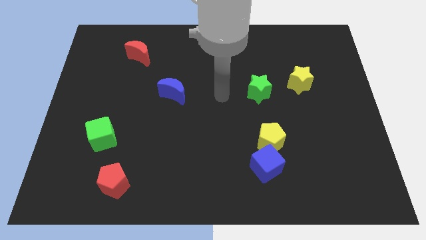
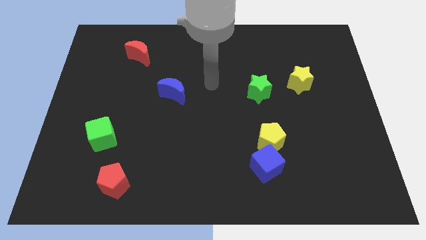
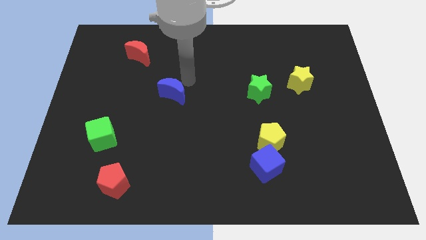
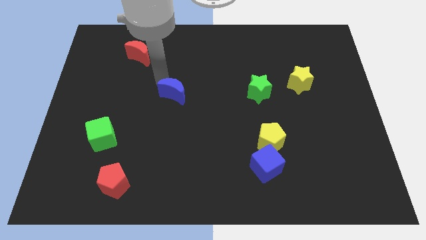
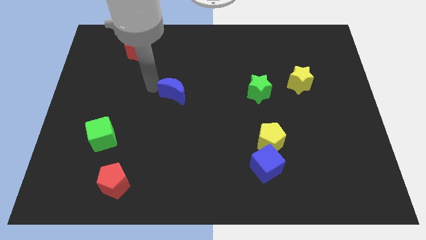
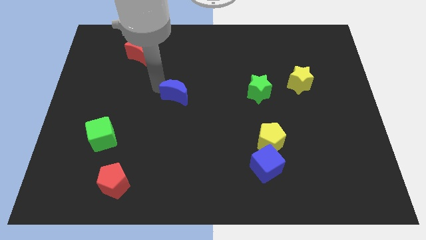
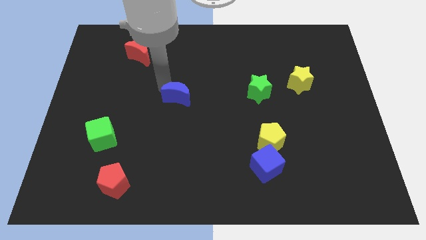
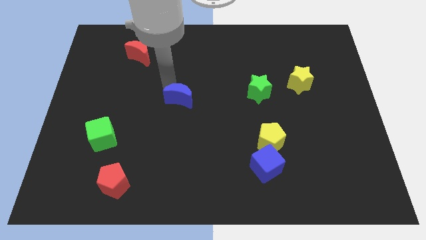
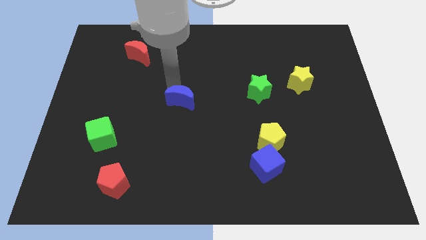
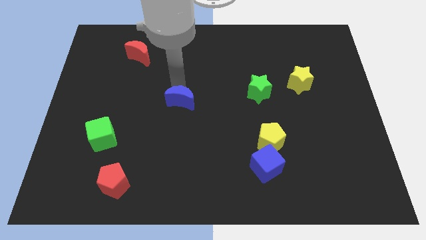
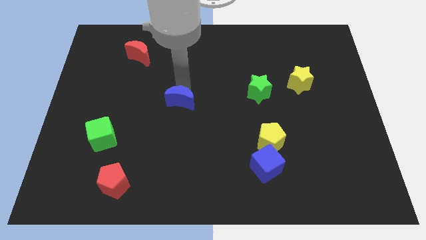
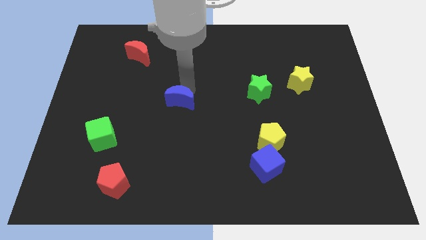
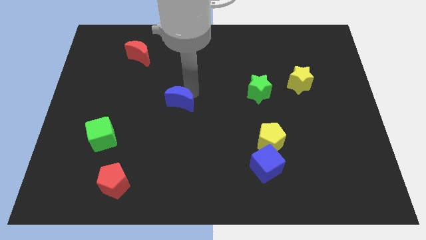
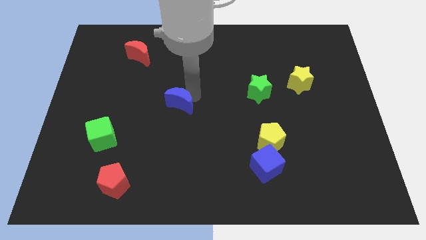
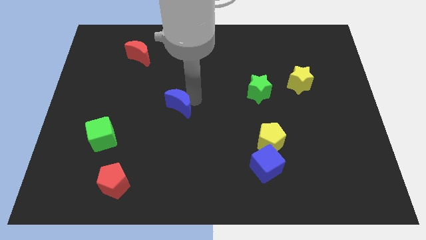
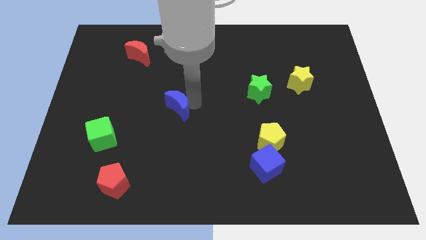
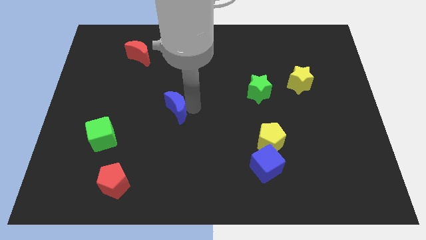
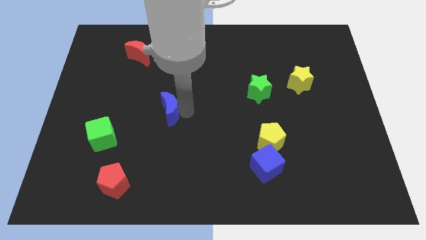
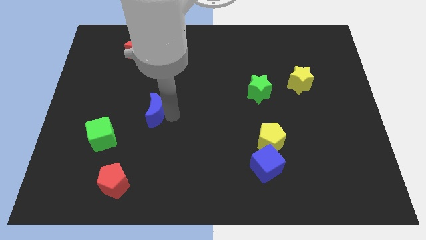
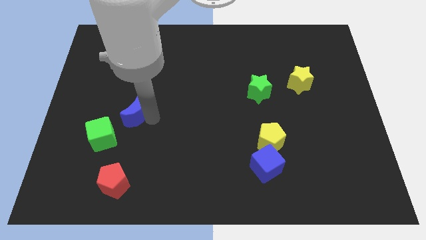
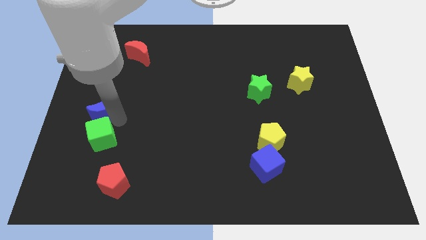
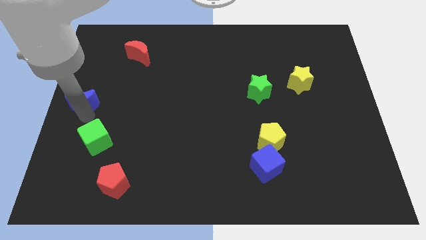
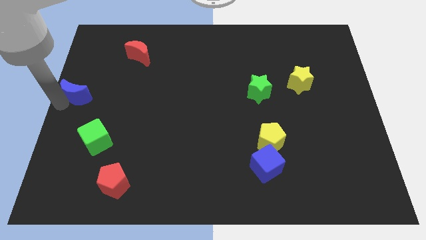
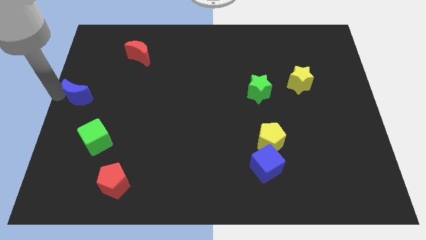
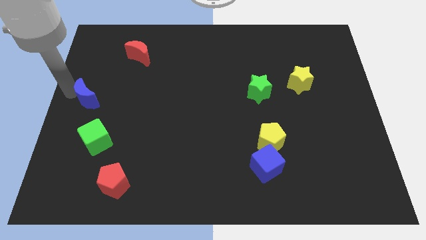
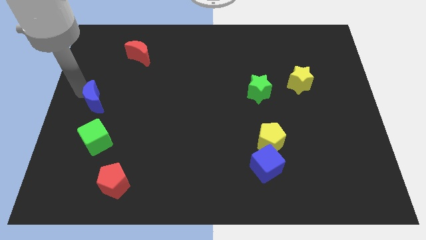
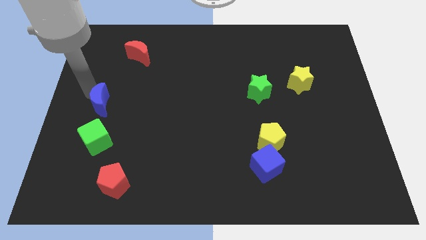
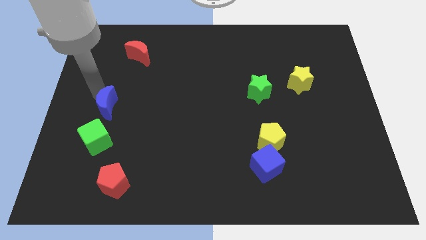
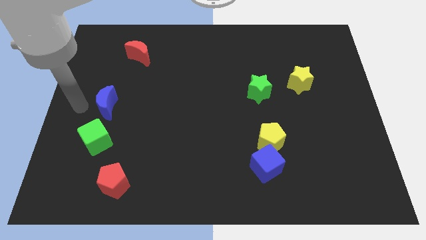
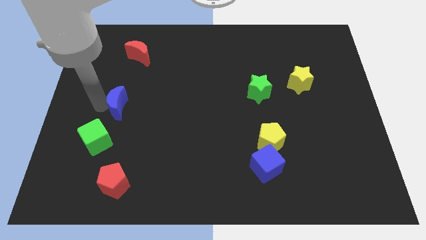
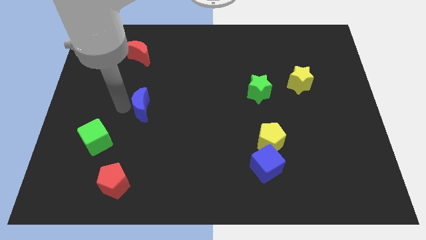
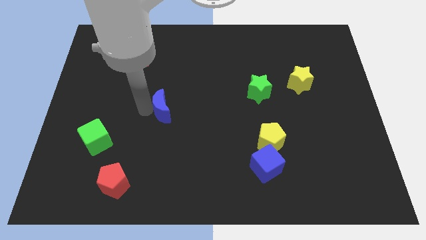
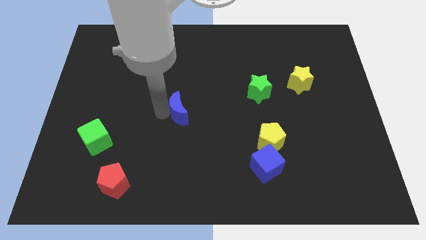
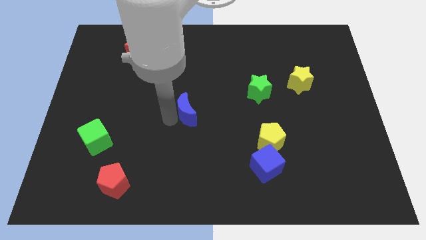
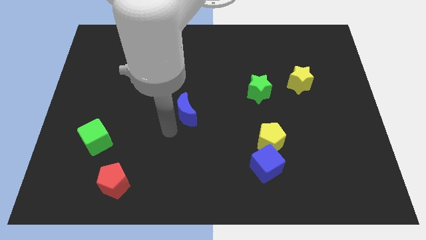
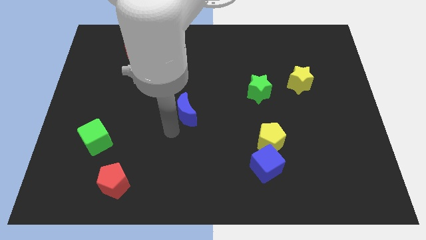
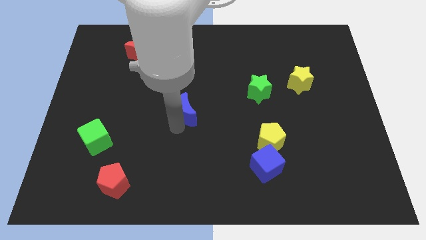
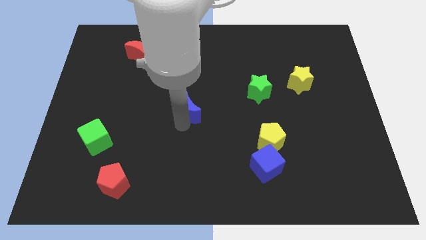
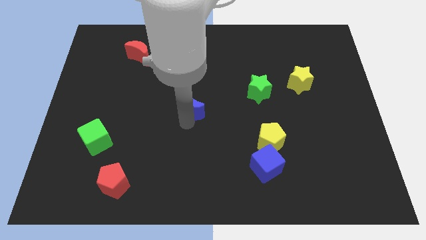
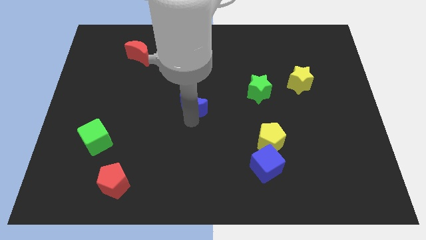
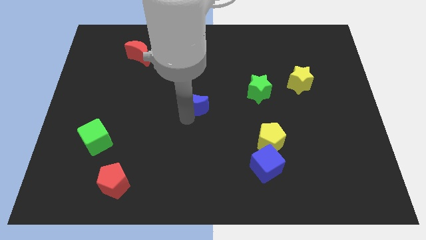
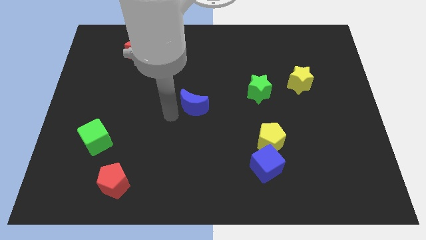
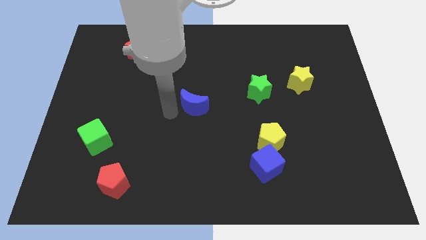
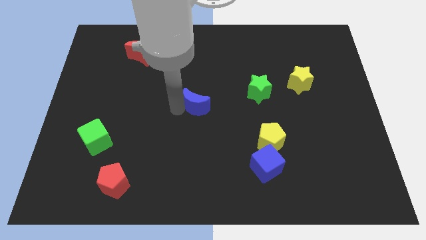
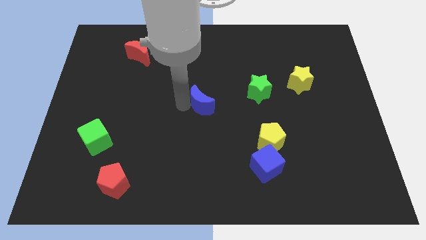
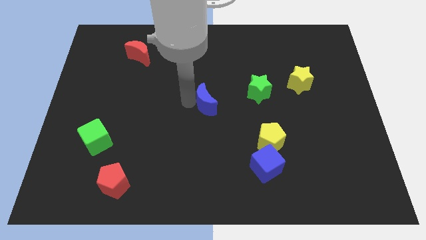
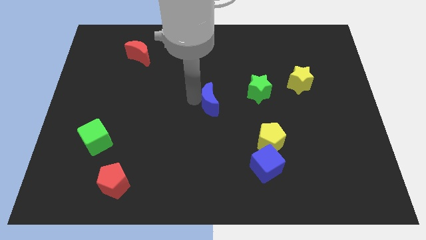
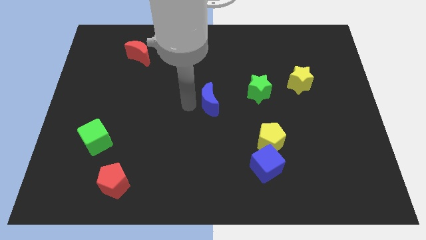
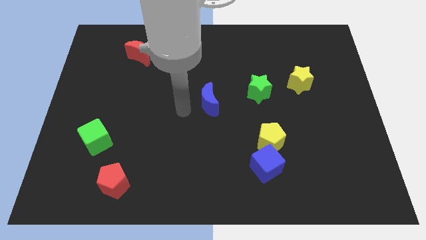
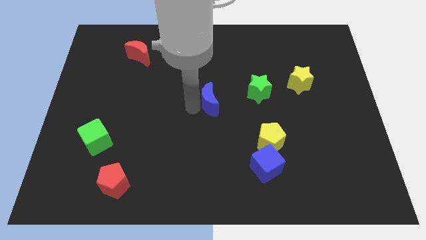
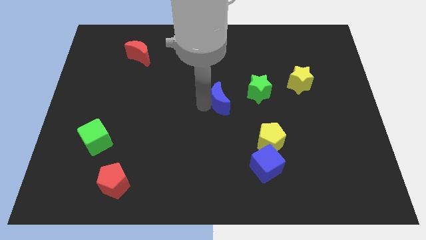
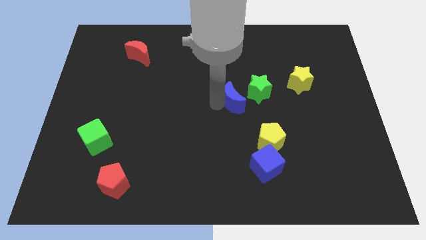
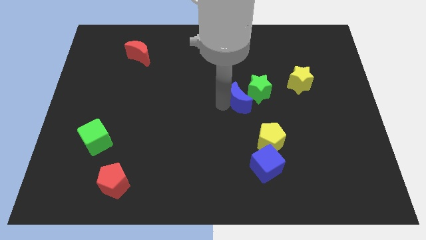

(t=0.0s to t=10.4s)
put the blue moon to the green star

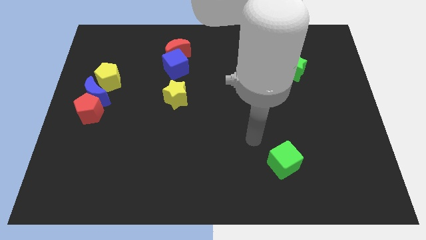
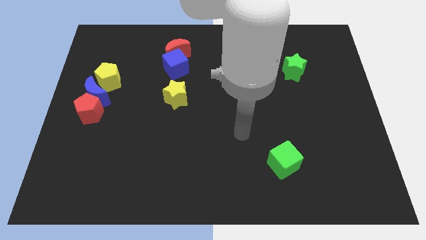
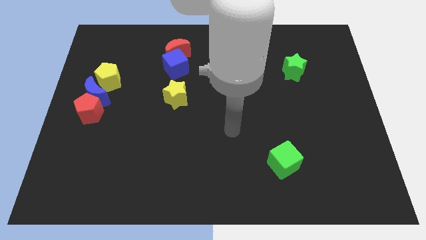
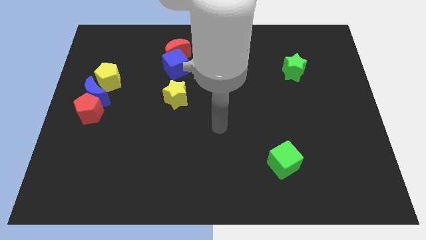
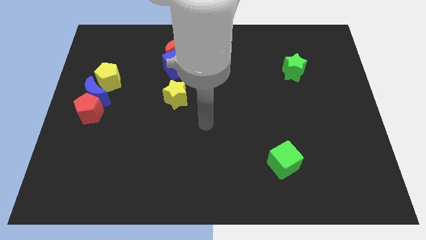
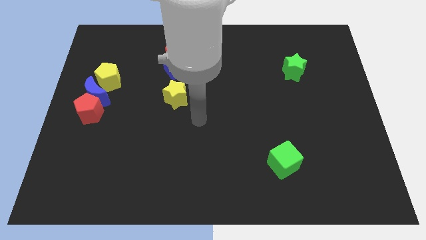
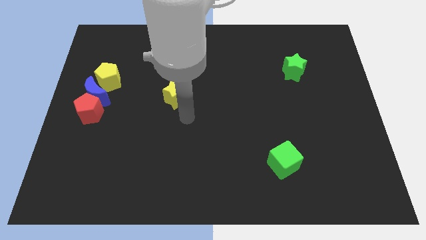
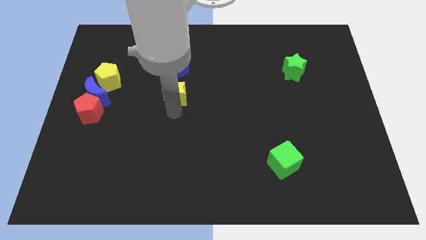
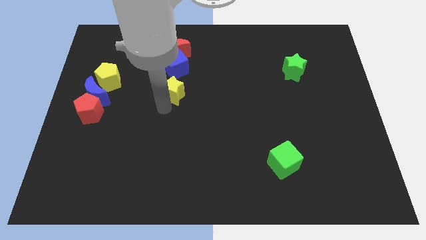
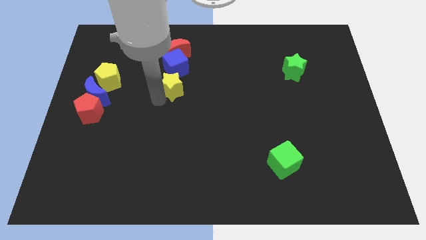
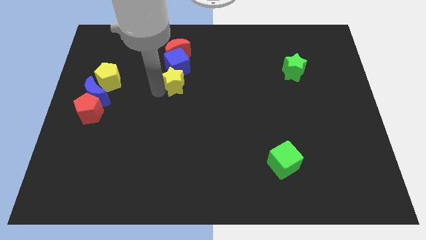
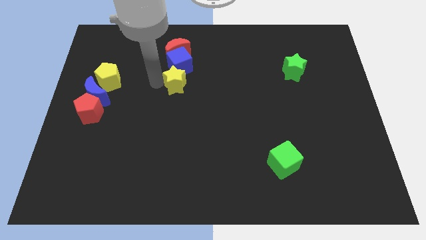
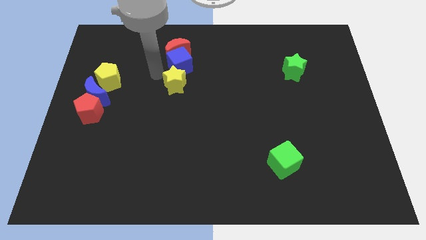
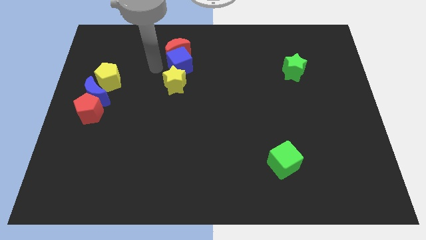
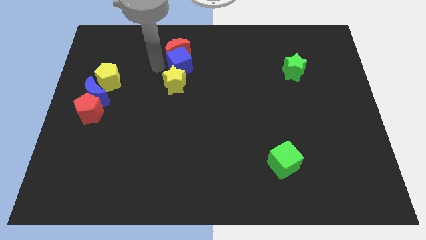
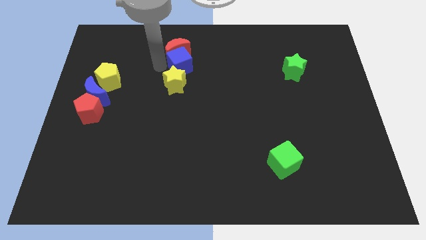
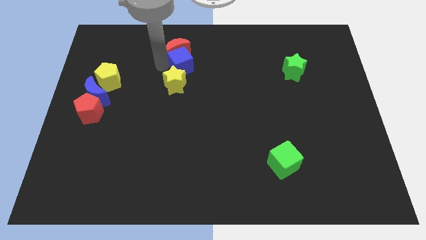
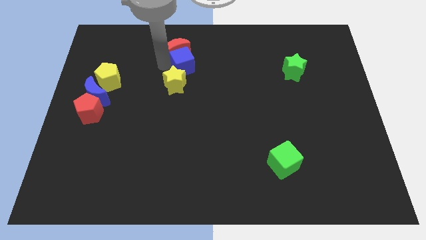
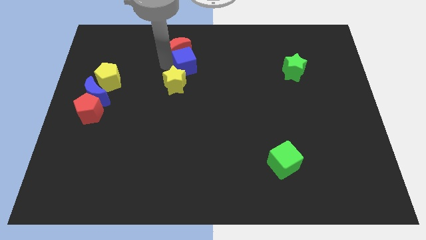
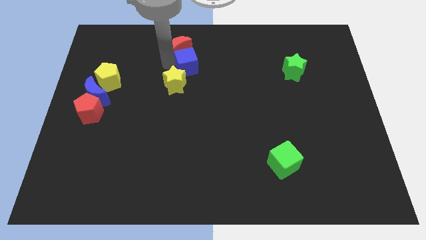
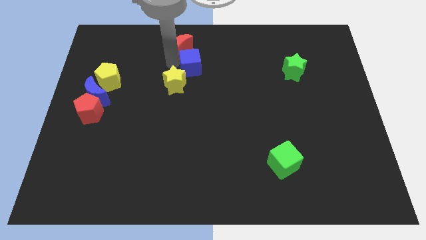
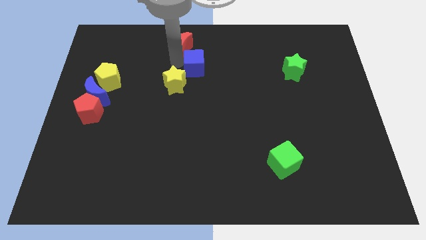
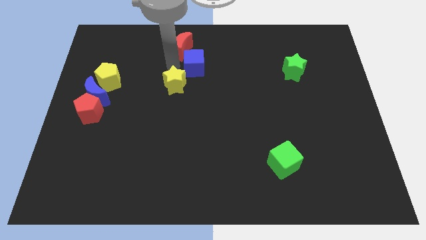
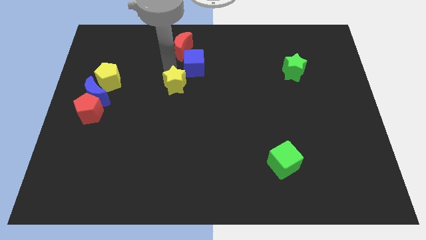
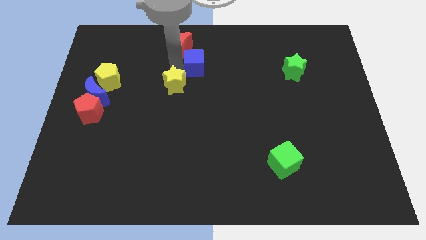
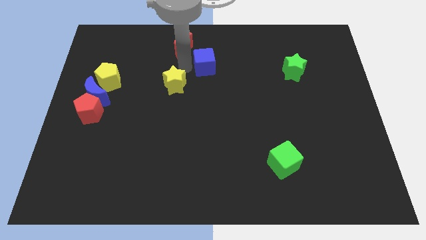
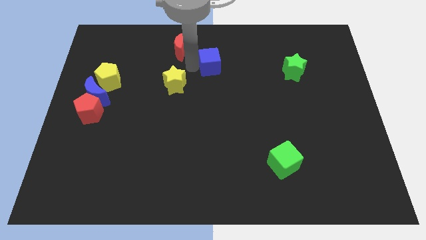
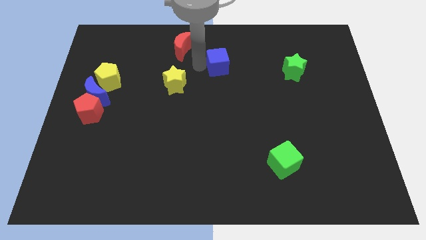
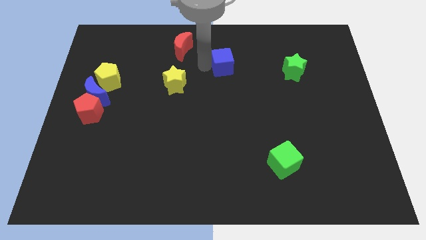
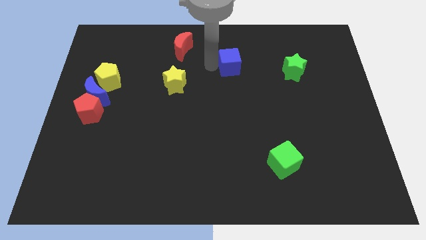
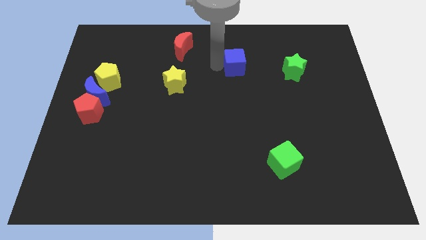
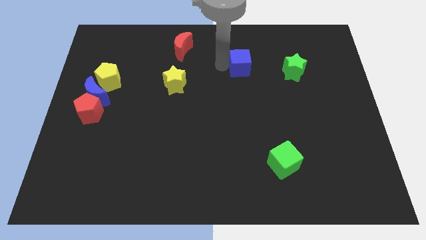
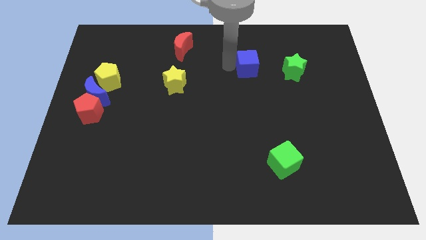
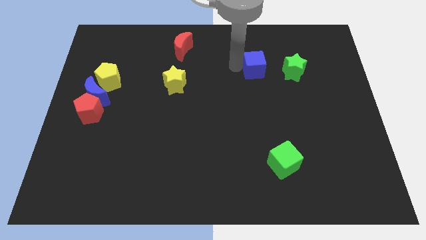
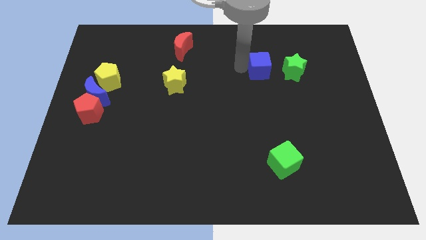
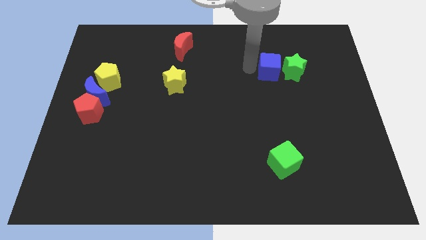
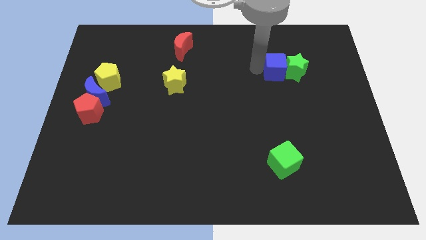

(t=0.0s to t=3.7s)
push the blue cube next to the green star
